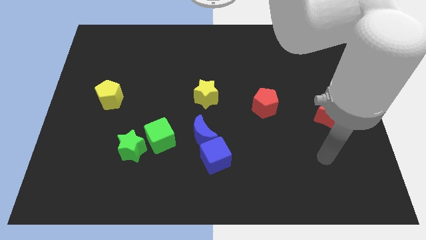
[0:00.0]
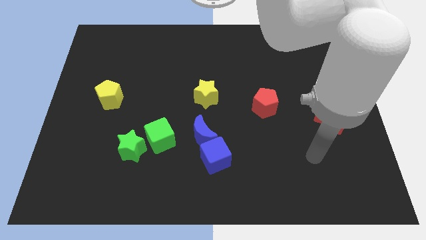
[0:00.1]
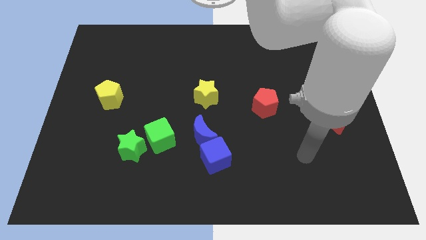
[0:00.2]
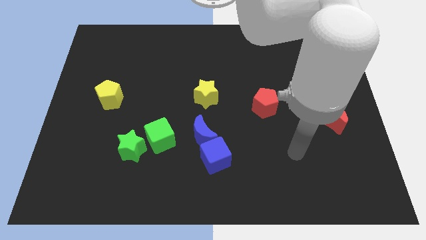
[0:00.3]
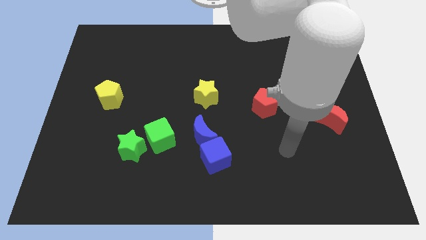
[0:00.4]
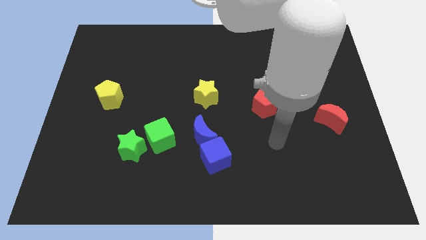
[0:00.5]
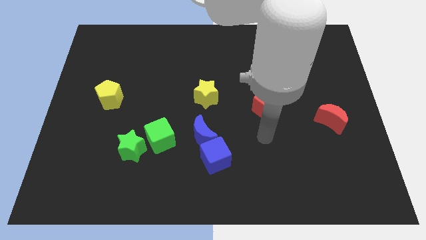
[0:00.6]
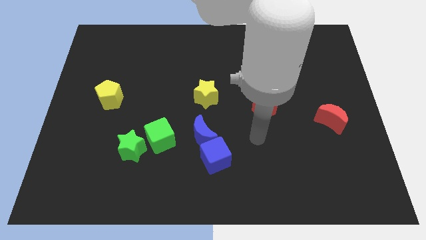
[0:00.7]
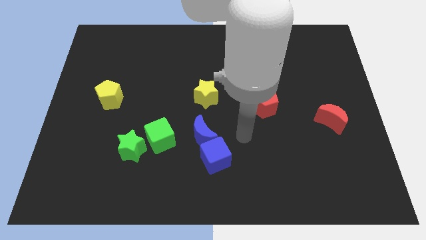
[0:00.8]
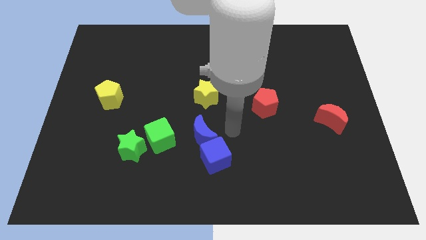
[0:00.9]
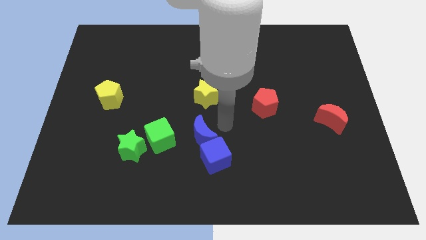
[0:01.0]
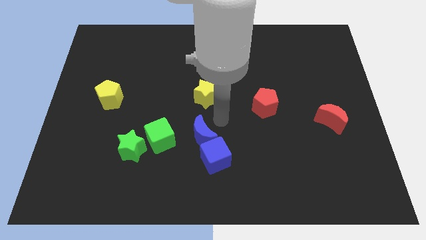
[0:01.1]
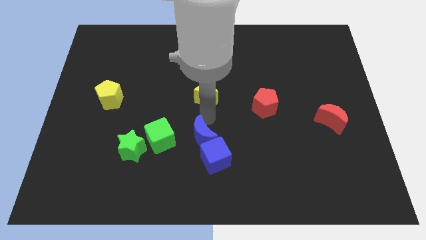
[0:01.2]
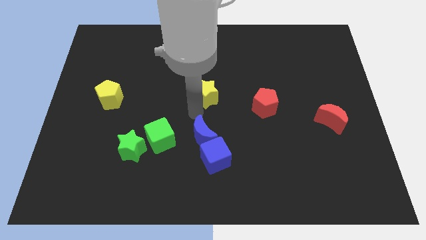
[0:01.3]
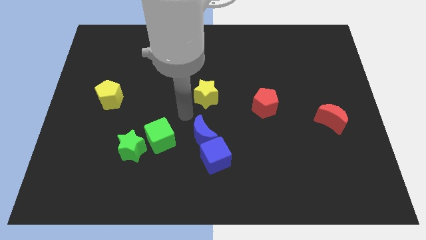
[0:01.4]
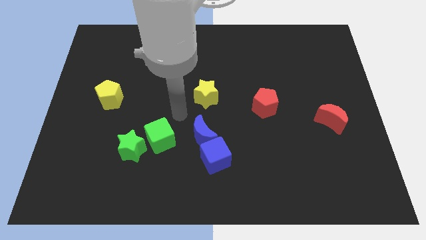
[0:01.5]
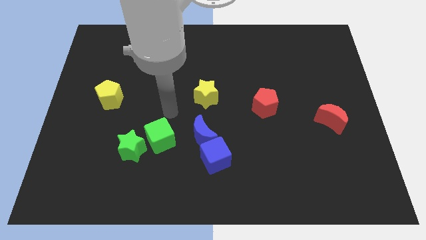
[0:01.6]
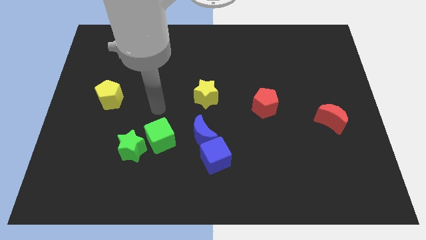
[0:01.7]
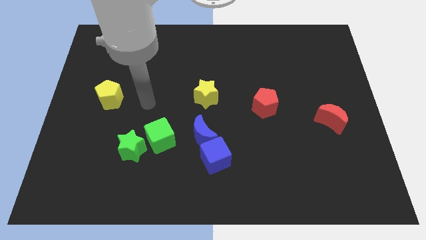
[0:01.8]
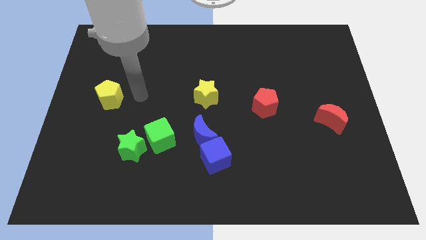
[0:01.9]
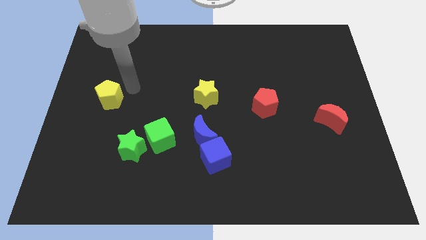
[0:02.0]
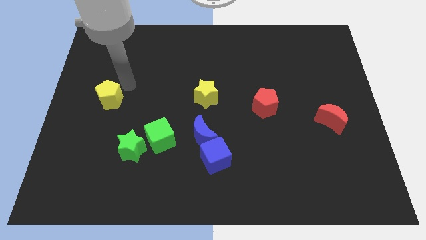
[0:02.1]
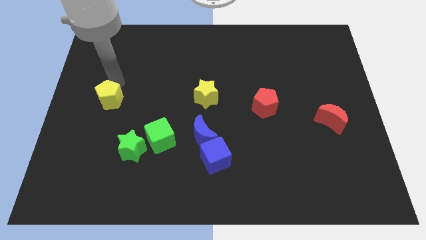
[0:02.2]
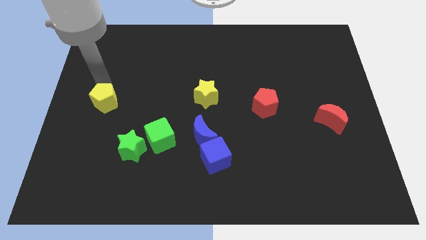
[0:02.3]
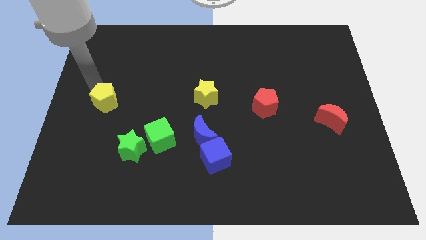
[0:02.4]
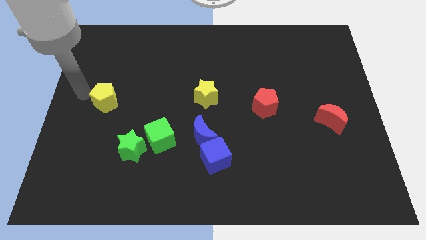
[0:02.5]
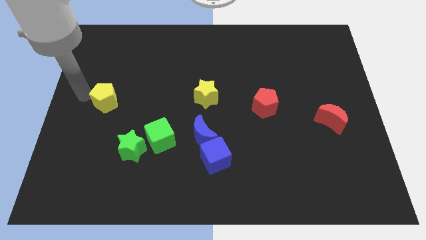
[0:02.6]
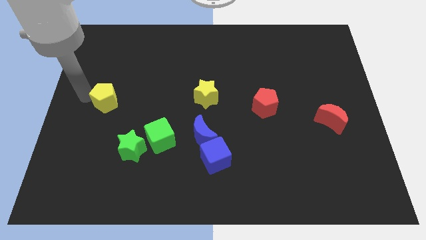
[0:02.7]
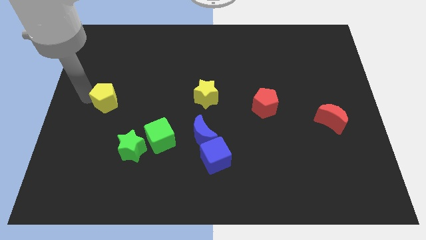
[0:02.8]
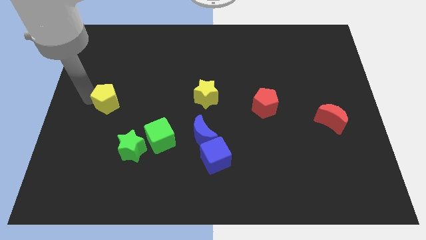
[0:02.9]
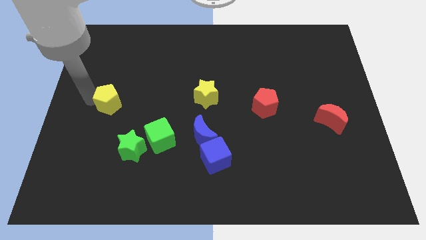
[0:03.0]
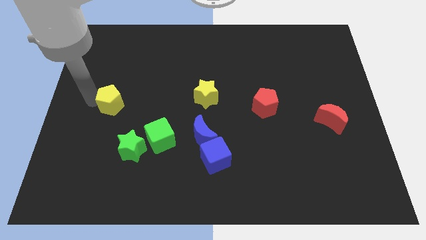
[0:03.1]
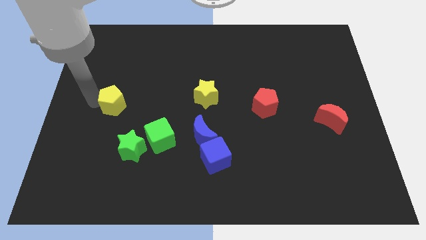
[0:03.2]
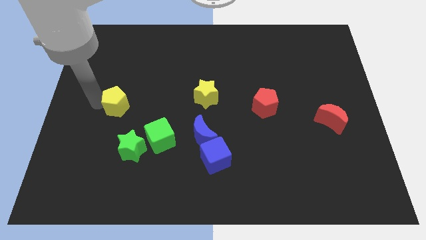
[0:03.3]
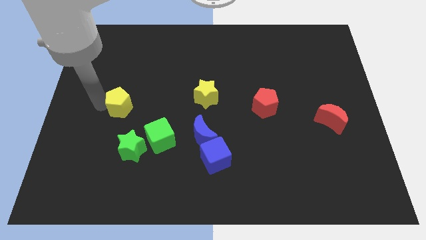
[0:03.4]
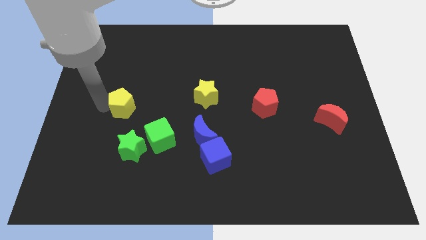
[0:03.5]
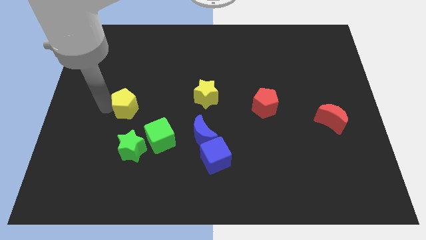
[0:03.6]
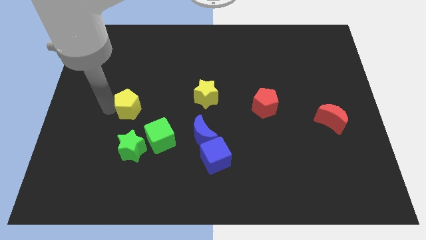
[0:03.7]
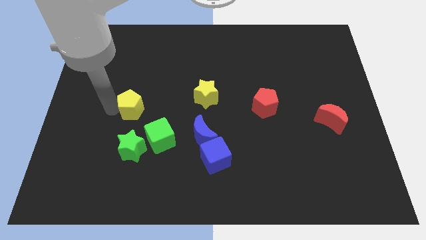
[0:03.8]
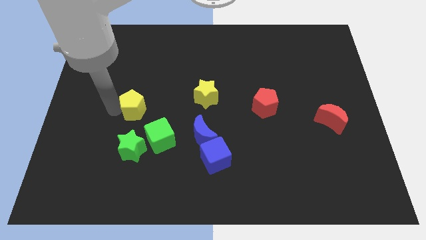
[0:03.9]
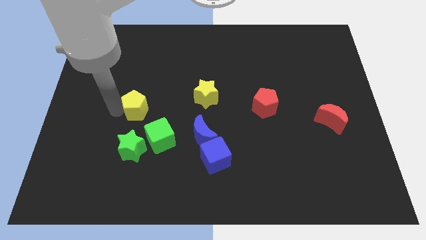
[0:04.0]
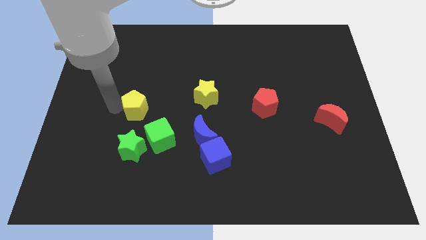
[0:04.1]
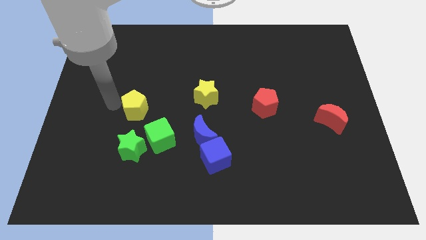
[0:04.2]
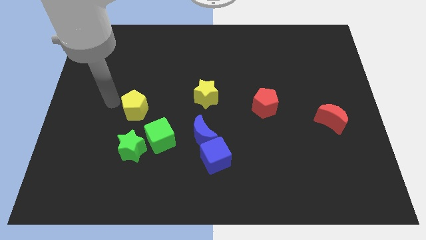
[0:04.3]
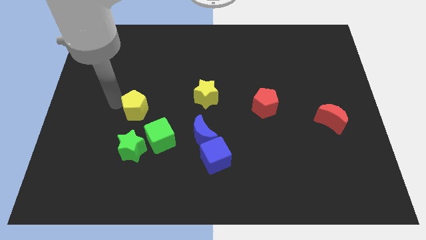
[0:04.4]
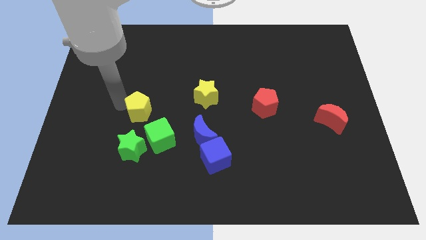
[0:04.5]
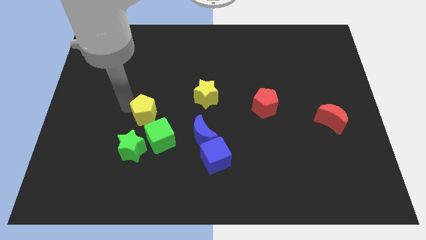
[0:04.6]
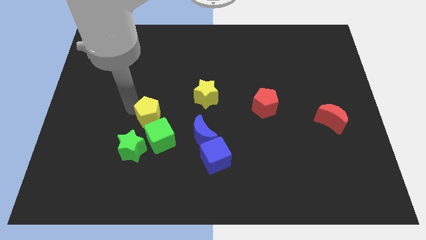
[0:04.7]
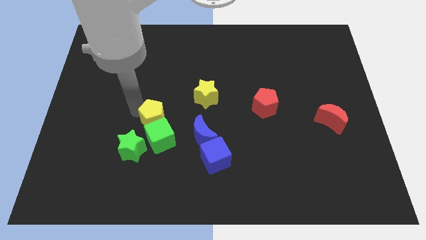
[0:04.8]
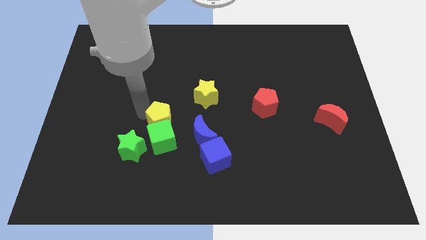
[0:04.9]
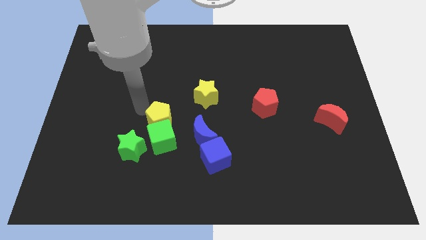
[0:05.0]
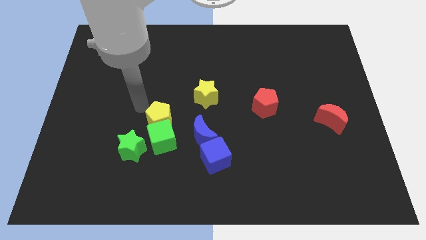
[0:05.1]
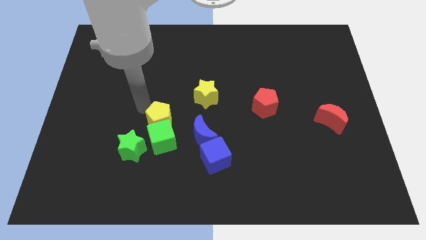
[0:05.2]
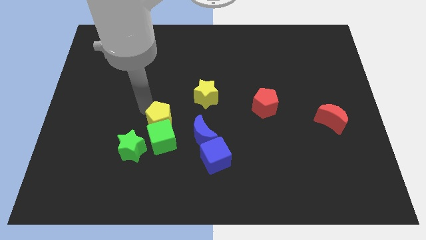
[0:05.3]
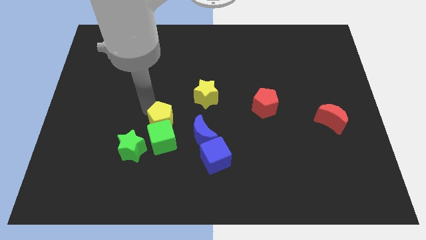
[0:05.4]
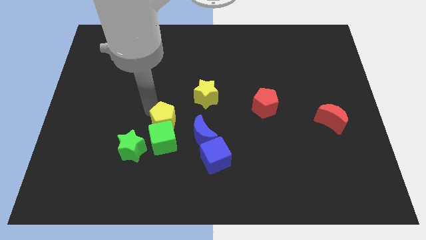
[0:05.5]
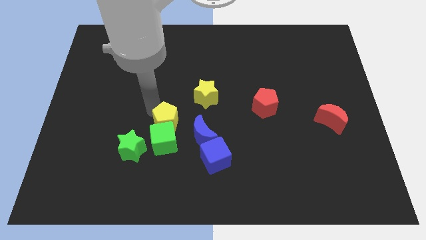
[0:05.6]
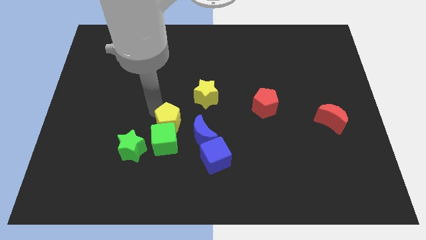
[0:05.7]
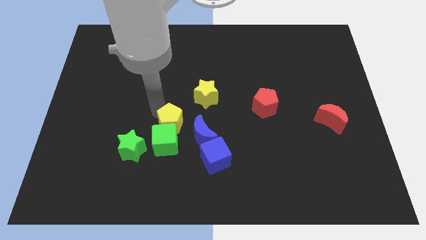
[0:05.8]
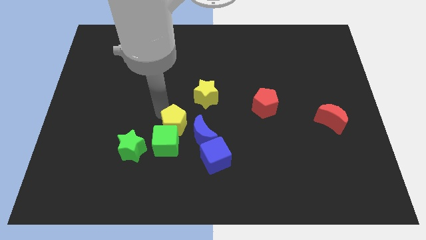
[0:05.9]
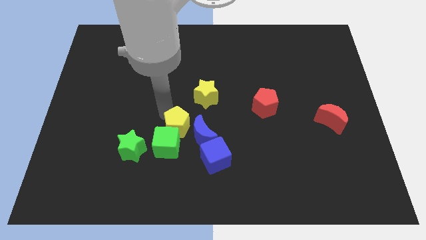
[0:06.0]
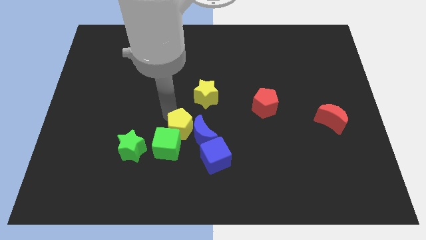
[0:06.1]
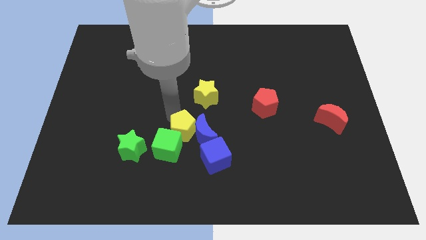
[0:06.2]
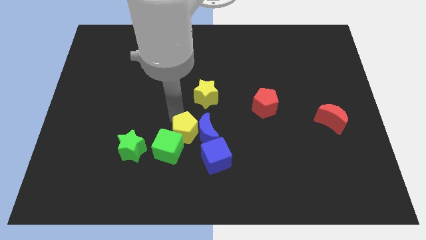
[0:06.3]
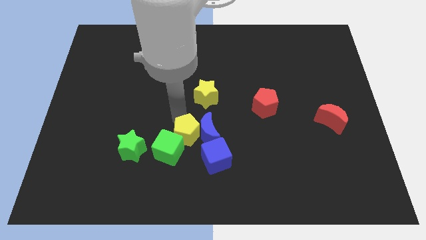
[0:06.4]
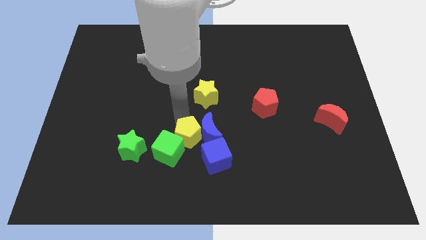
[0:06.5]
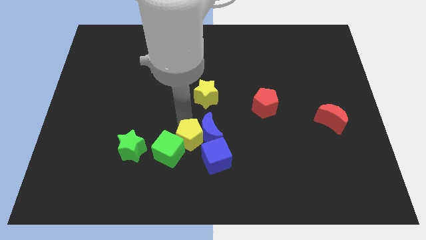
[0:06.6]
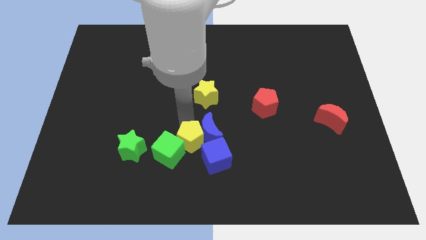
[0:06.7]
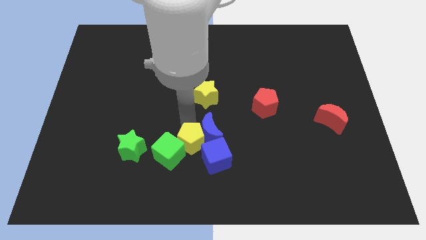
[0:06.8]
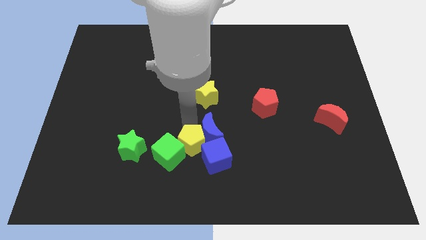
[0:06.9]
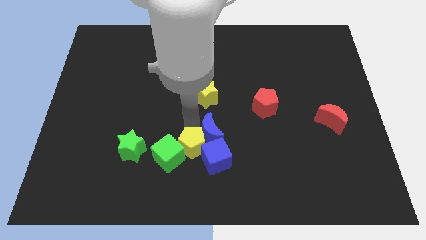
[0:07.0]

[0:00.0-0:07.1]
put the yellow pentagon close to the blue cube

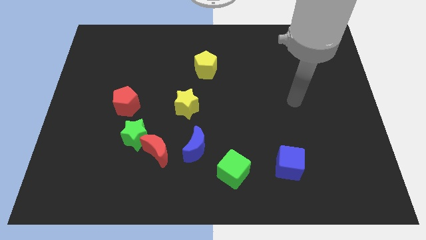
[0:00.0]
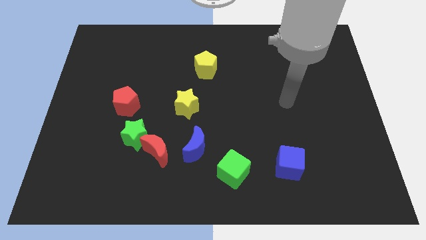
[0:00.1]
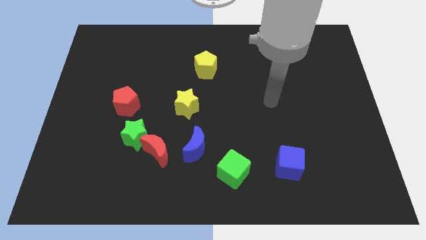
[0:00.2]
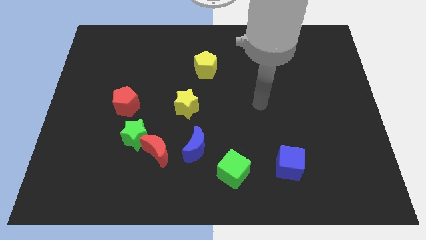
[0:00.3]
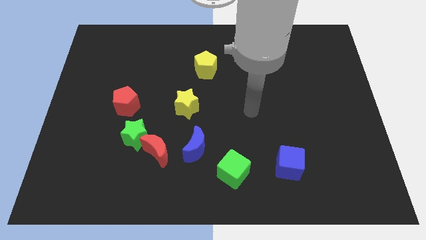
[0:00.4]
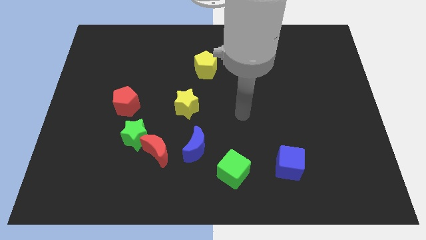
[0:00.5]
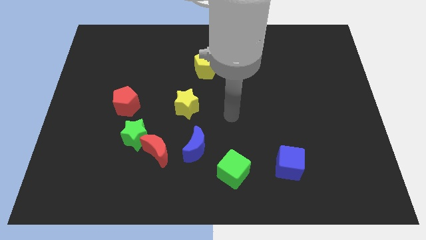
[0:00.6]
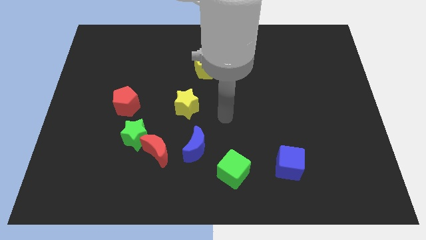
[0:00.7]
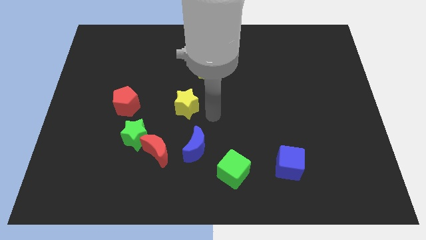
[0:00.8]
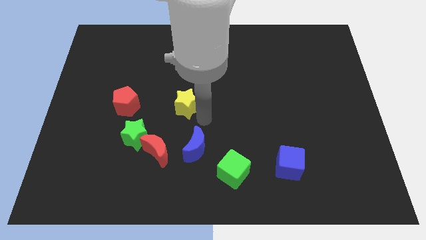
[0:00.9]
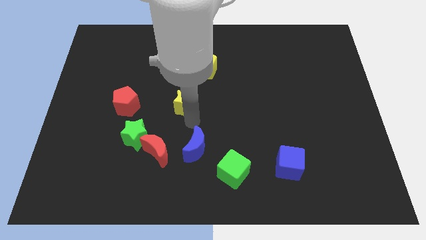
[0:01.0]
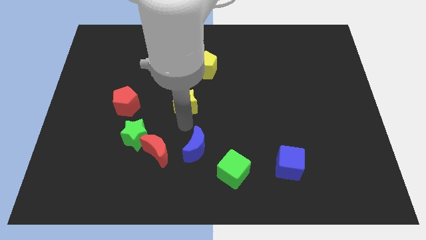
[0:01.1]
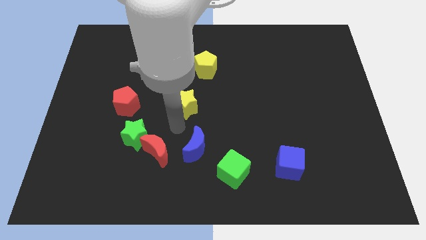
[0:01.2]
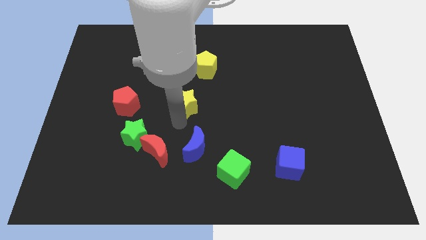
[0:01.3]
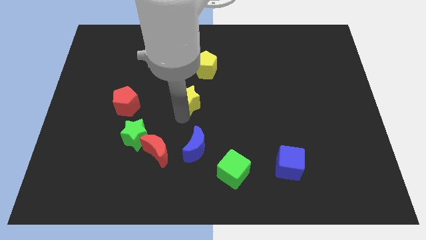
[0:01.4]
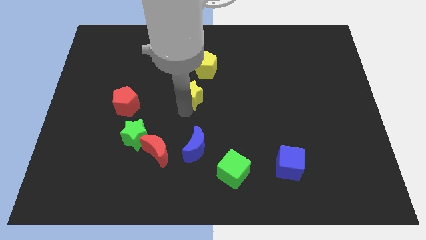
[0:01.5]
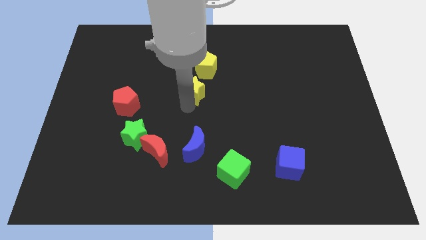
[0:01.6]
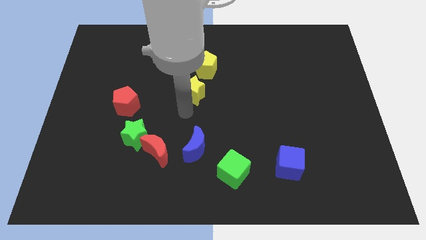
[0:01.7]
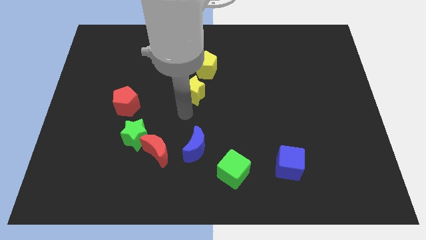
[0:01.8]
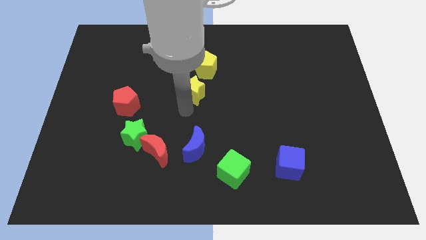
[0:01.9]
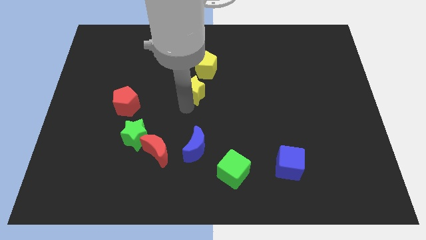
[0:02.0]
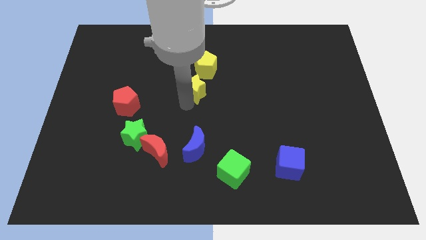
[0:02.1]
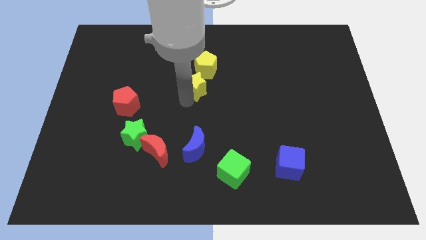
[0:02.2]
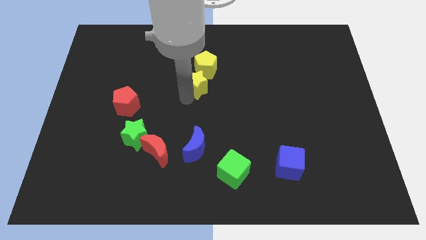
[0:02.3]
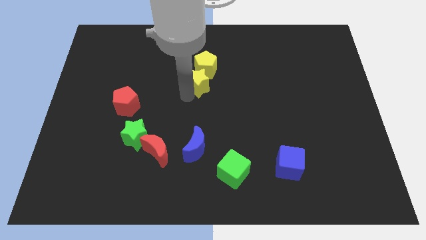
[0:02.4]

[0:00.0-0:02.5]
slide the yellow star towards the yellow pentagon
